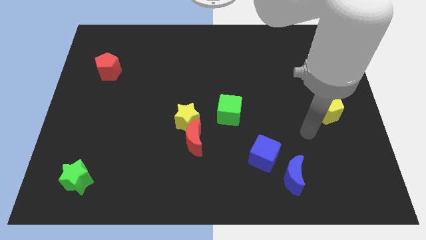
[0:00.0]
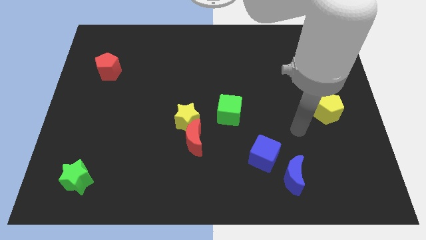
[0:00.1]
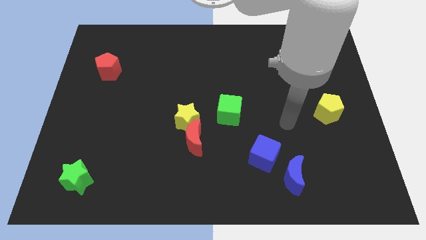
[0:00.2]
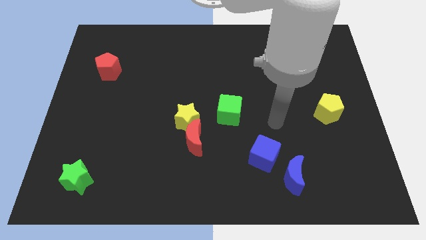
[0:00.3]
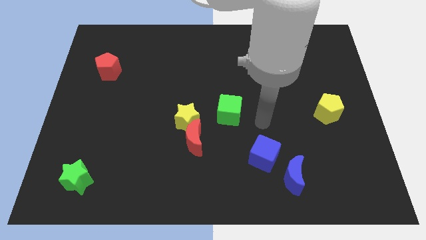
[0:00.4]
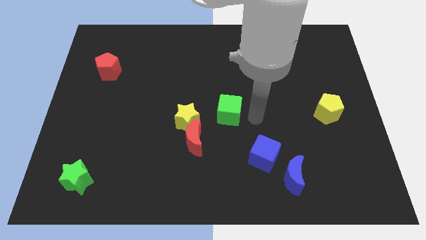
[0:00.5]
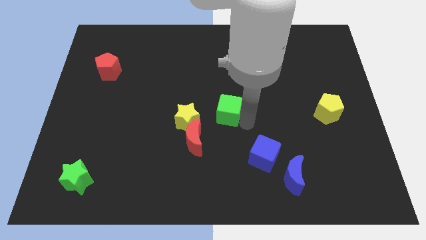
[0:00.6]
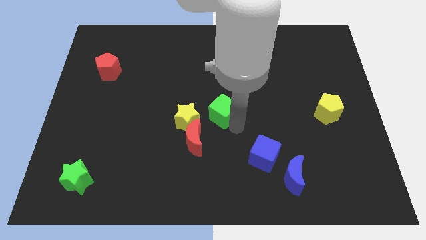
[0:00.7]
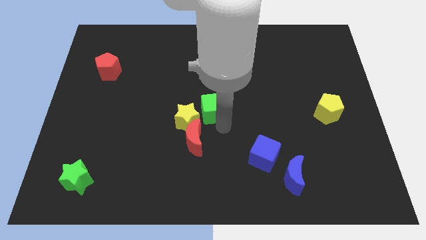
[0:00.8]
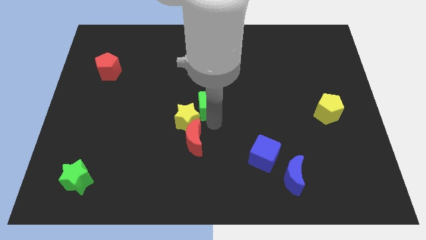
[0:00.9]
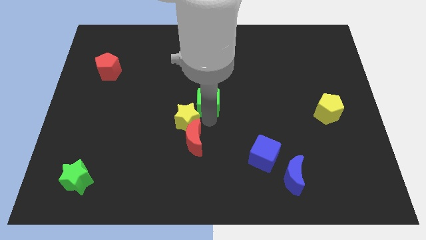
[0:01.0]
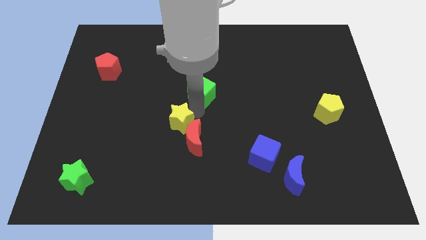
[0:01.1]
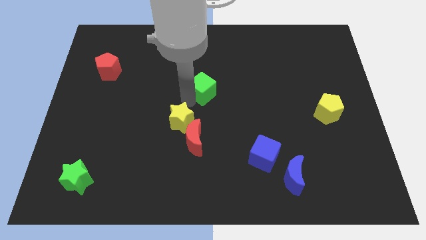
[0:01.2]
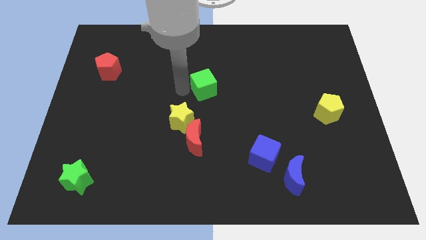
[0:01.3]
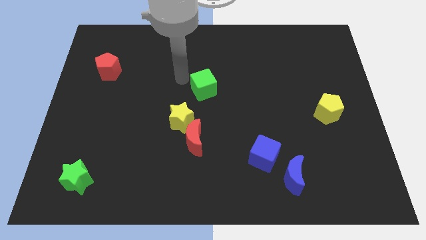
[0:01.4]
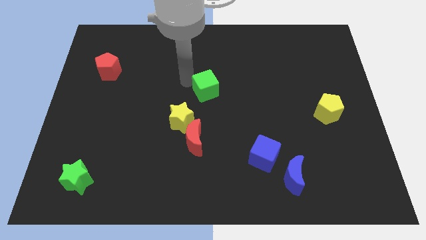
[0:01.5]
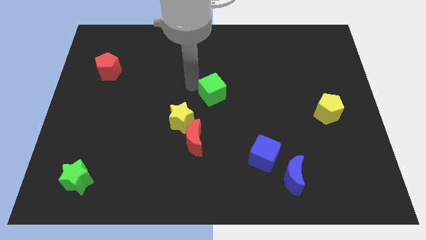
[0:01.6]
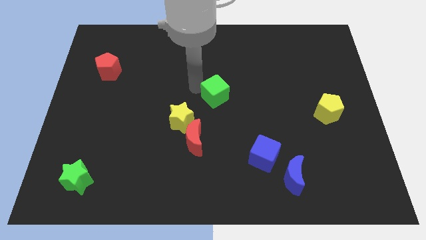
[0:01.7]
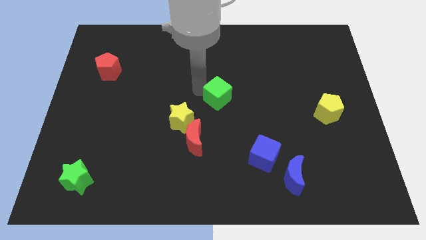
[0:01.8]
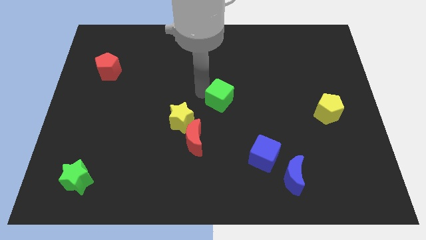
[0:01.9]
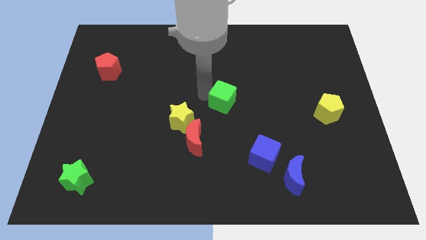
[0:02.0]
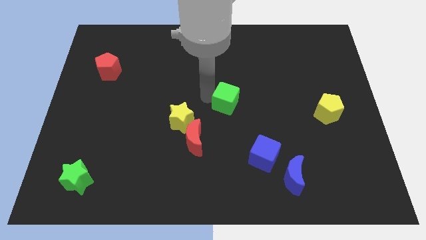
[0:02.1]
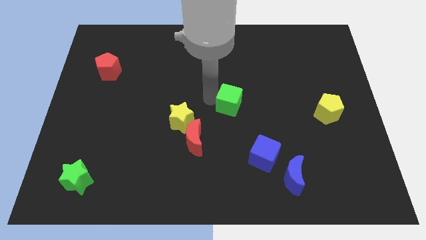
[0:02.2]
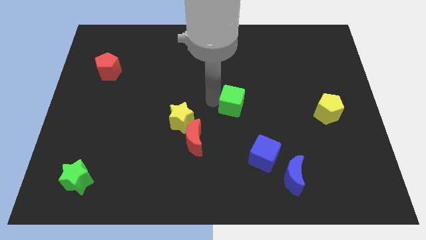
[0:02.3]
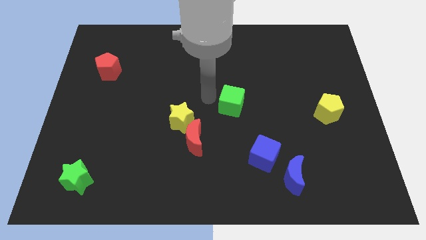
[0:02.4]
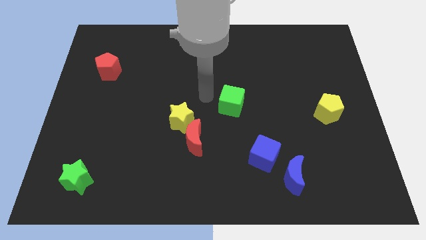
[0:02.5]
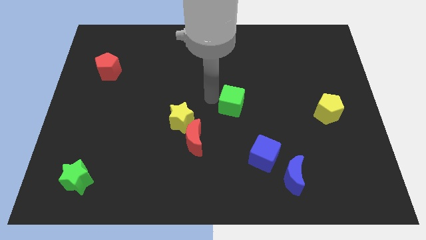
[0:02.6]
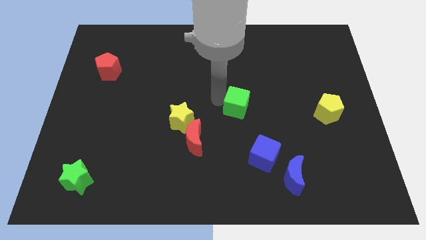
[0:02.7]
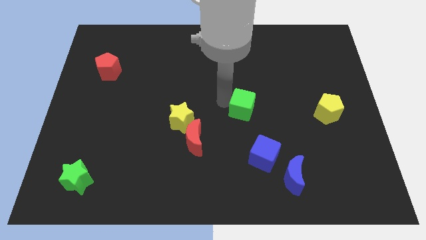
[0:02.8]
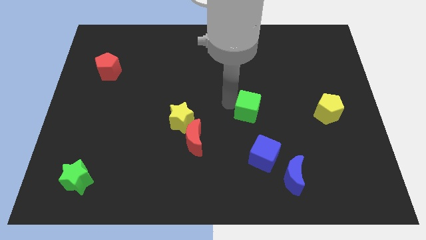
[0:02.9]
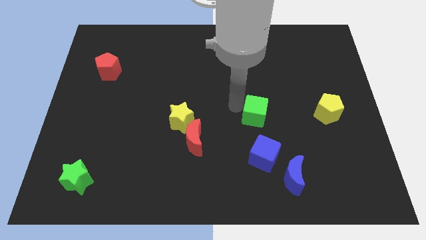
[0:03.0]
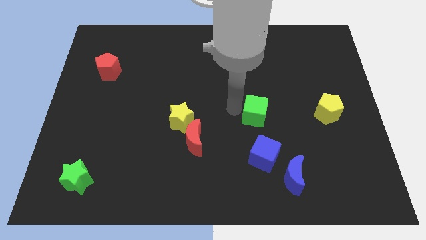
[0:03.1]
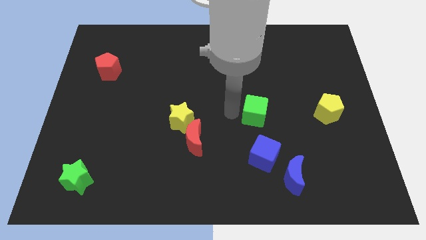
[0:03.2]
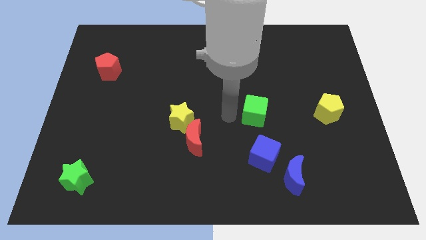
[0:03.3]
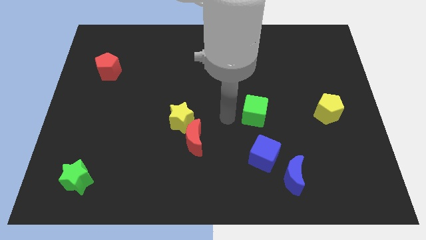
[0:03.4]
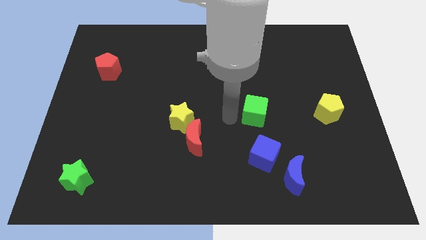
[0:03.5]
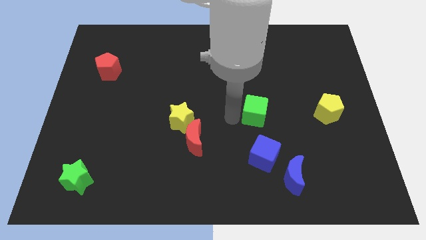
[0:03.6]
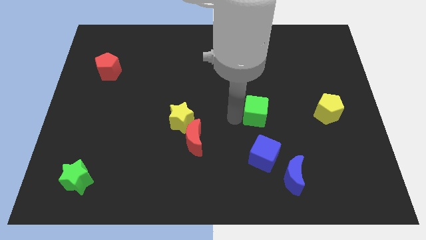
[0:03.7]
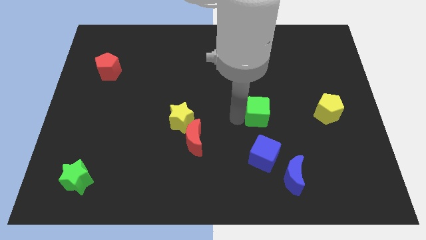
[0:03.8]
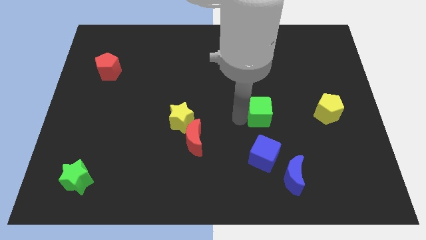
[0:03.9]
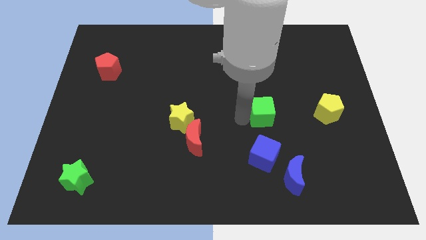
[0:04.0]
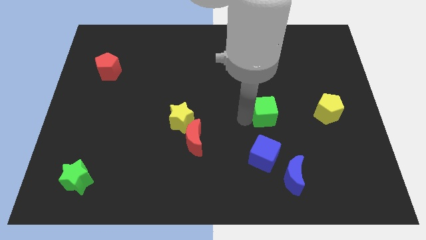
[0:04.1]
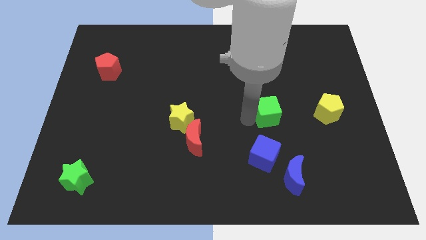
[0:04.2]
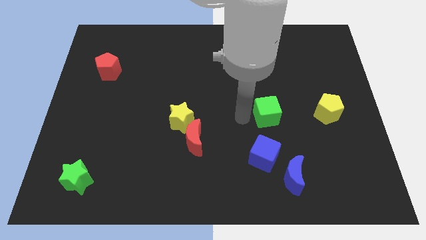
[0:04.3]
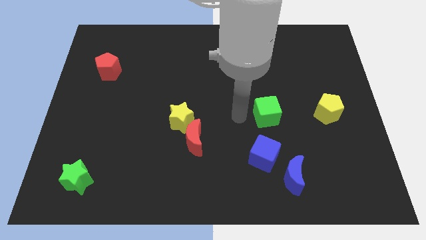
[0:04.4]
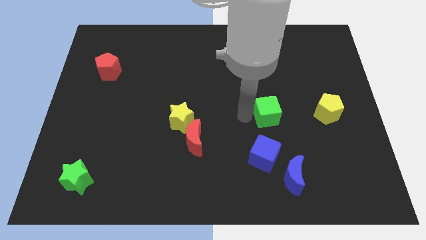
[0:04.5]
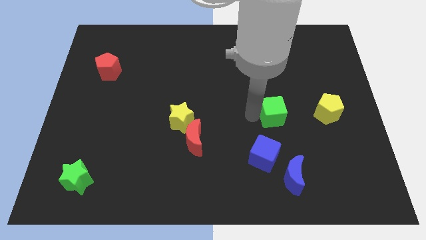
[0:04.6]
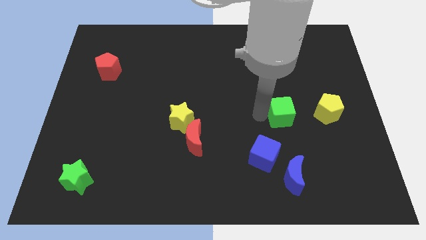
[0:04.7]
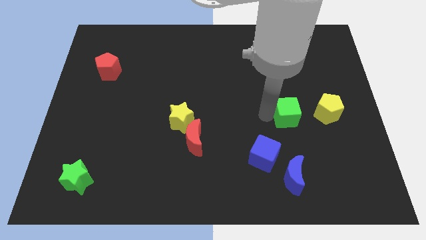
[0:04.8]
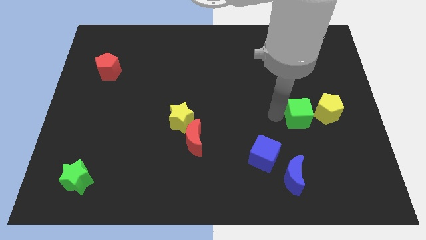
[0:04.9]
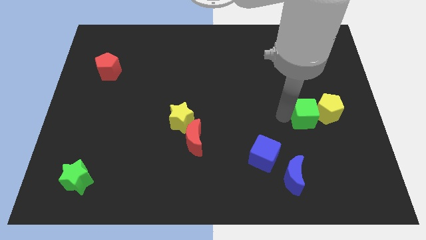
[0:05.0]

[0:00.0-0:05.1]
push the green cube close to the yellow pentagon

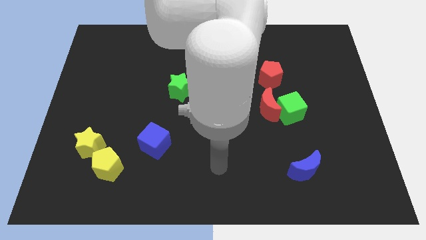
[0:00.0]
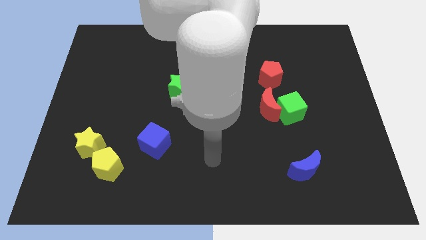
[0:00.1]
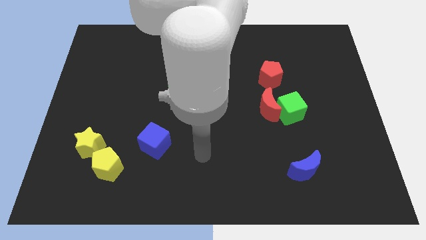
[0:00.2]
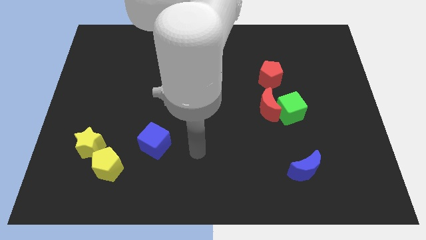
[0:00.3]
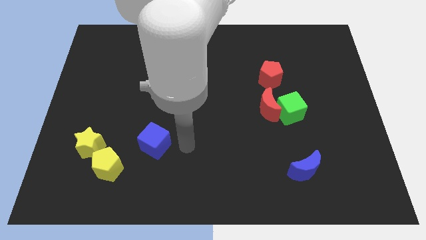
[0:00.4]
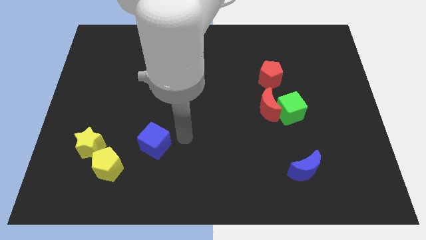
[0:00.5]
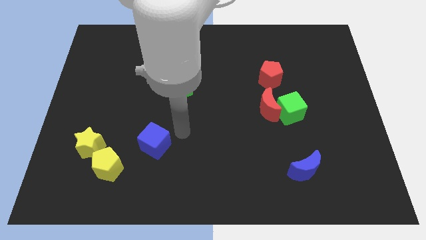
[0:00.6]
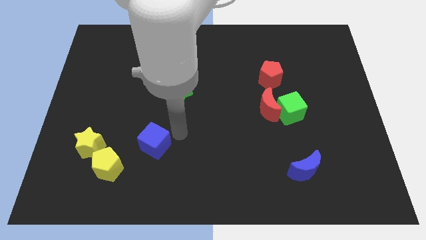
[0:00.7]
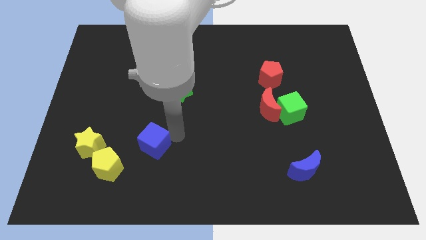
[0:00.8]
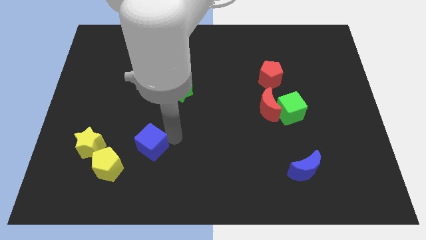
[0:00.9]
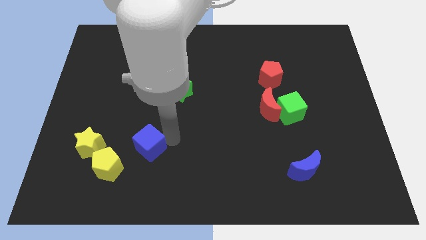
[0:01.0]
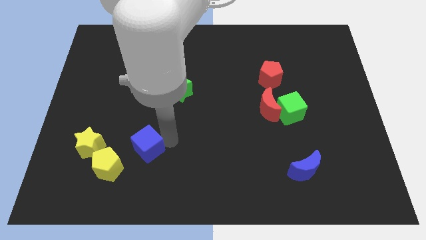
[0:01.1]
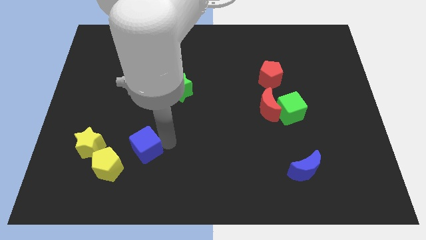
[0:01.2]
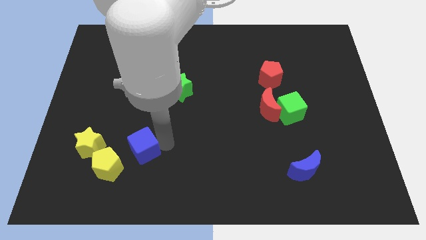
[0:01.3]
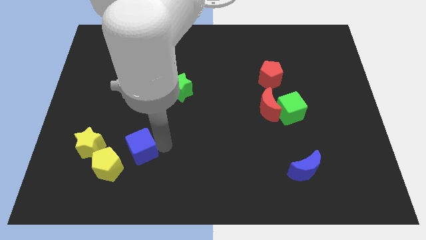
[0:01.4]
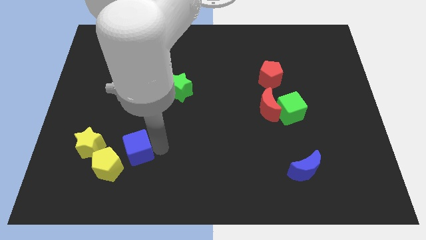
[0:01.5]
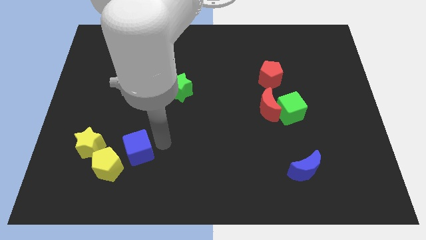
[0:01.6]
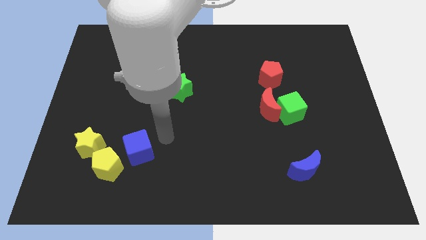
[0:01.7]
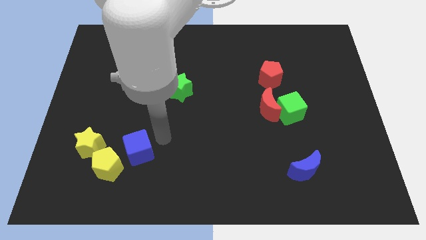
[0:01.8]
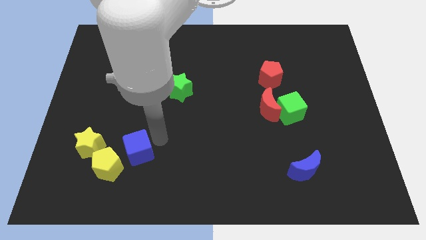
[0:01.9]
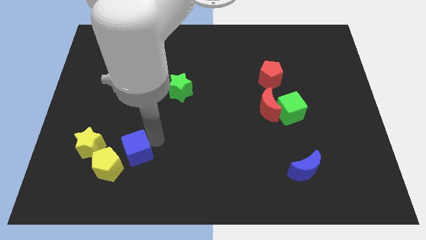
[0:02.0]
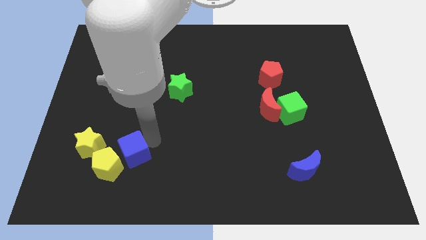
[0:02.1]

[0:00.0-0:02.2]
push the blue cube to the yellow pentagon
